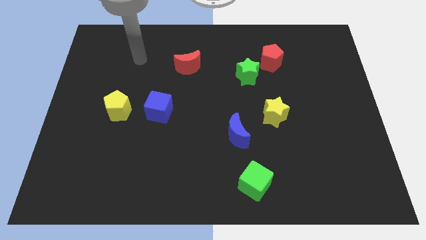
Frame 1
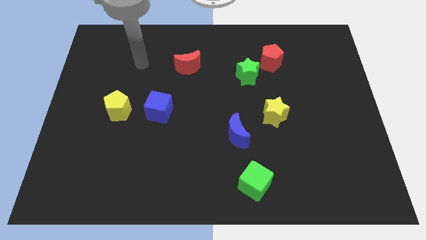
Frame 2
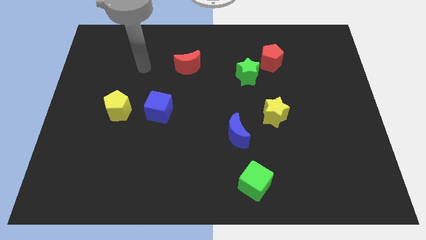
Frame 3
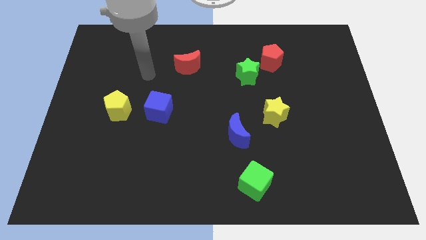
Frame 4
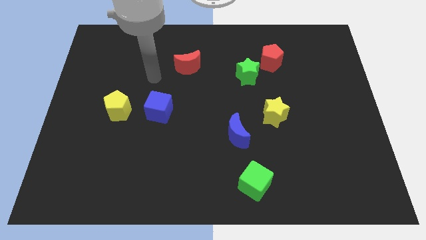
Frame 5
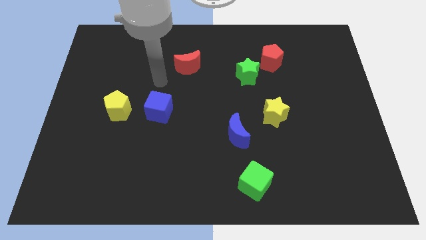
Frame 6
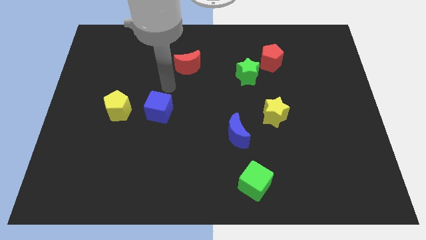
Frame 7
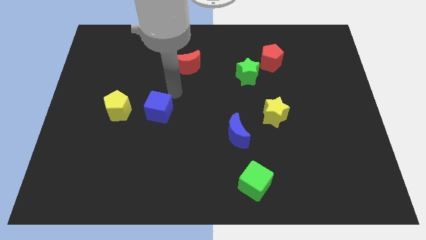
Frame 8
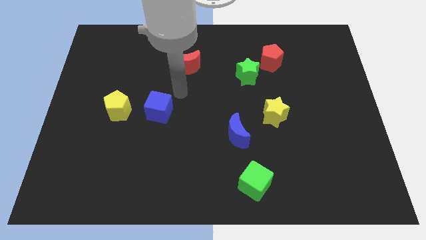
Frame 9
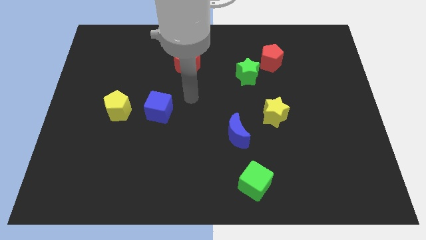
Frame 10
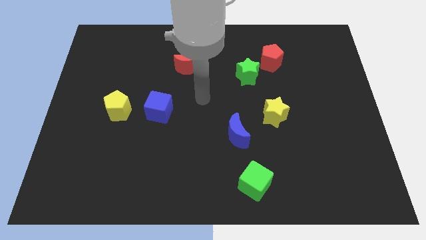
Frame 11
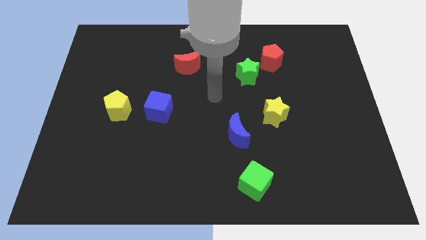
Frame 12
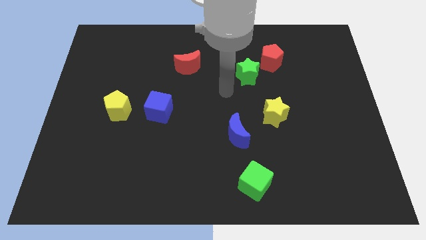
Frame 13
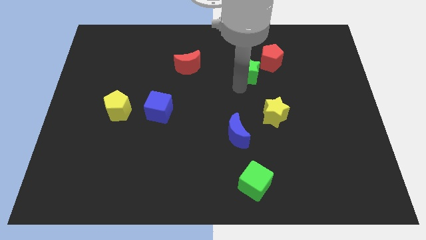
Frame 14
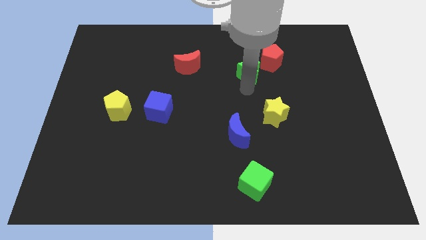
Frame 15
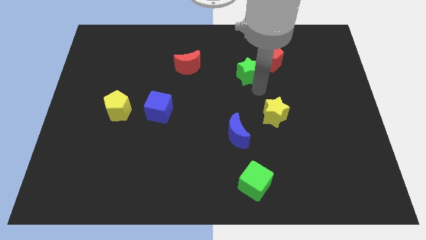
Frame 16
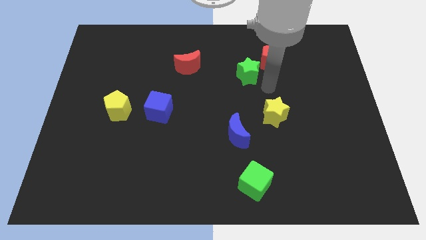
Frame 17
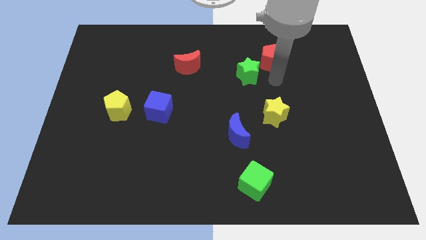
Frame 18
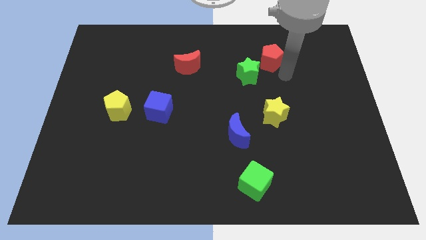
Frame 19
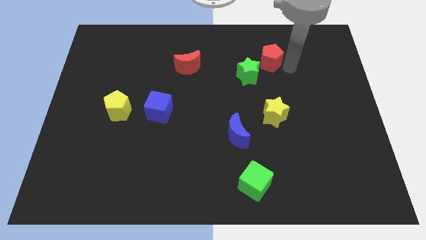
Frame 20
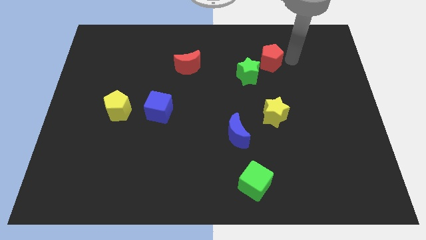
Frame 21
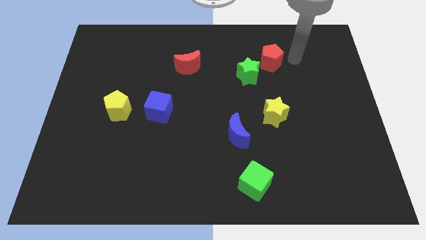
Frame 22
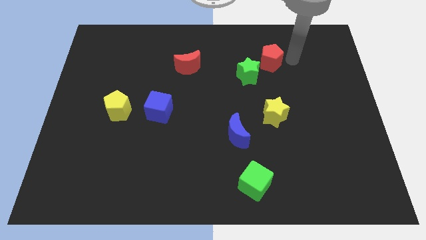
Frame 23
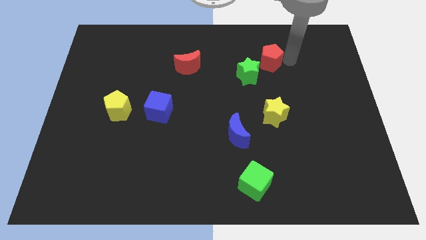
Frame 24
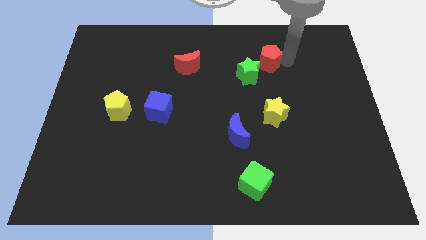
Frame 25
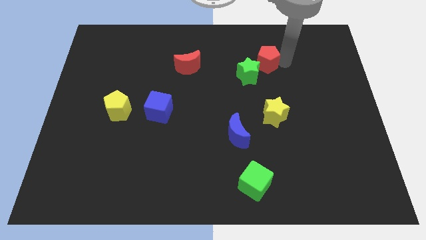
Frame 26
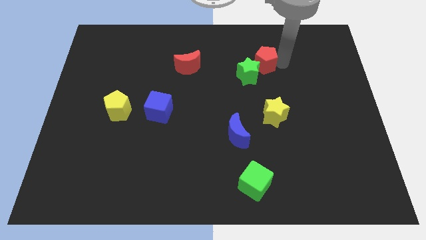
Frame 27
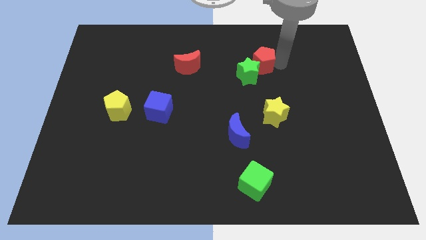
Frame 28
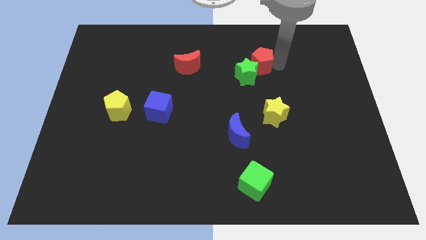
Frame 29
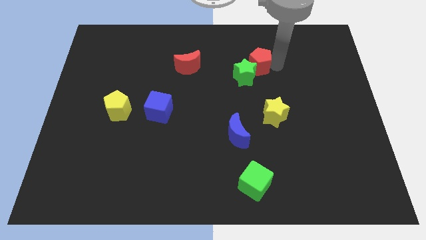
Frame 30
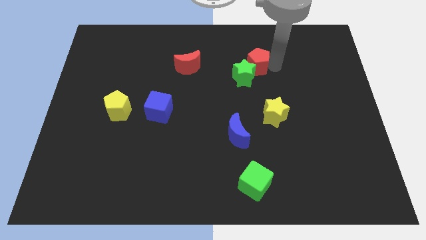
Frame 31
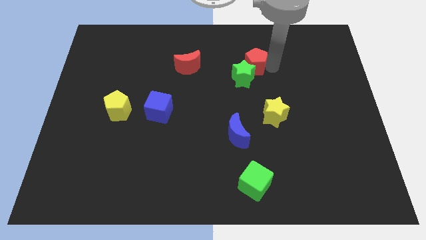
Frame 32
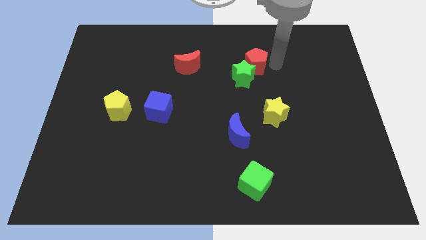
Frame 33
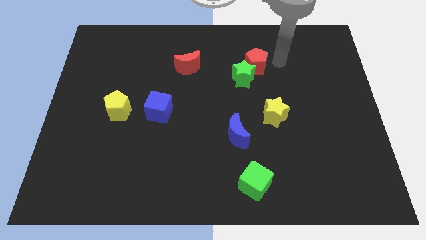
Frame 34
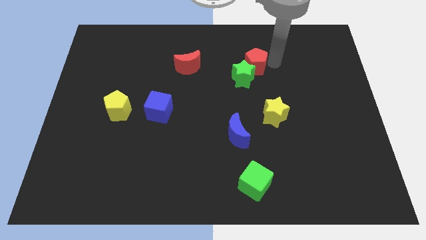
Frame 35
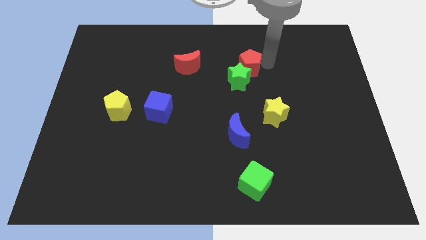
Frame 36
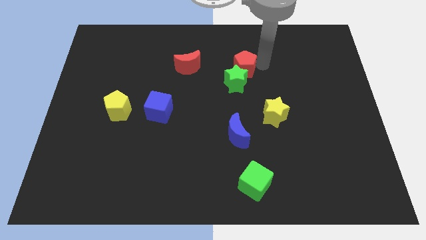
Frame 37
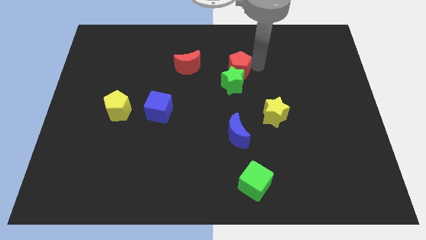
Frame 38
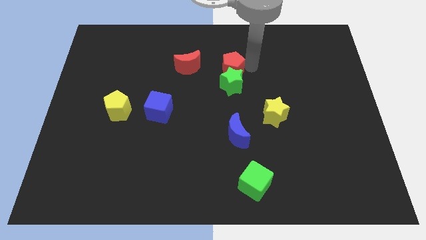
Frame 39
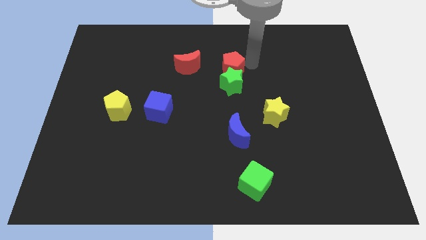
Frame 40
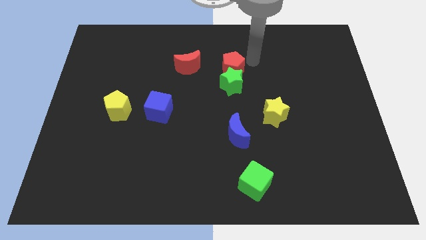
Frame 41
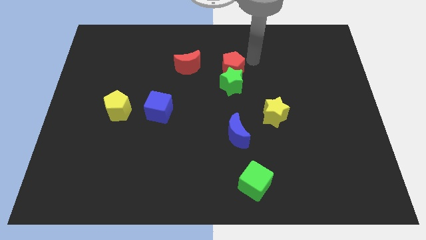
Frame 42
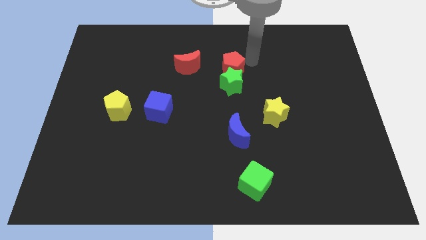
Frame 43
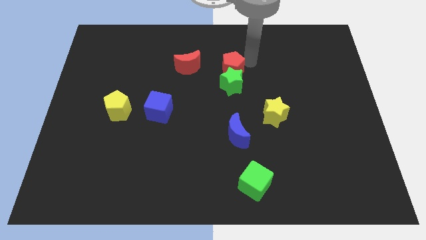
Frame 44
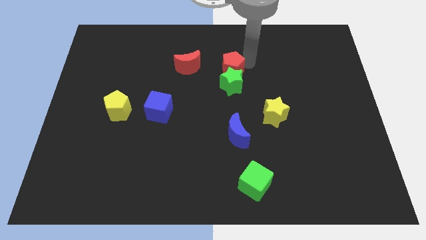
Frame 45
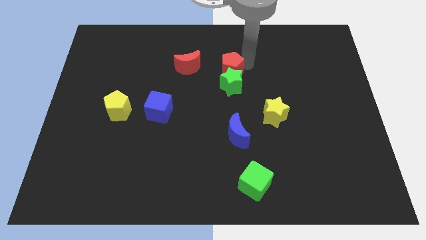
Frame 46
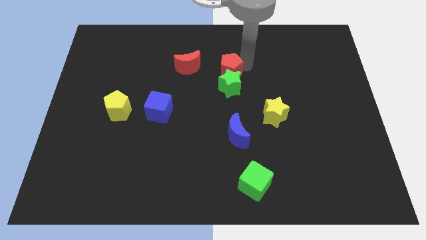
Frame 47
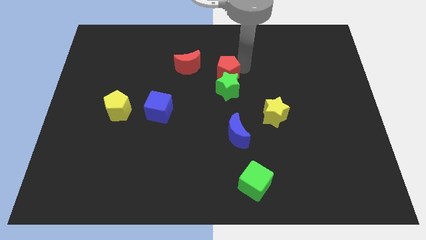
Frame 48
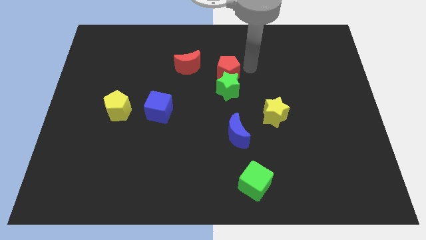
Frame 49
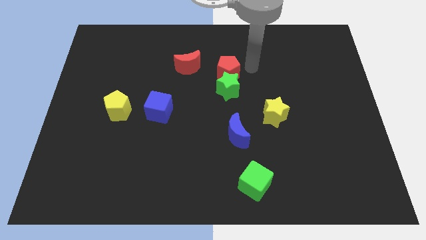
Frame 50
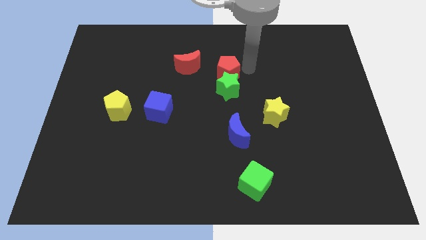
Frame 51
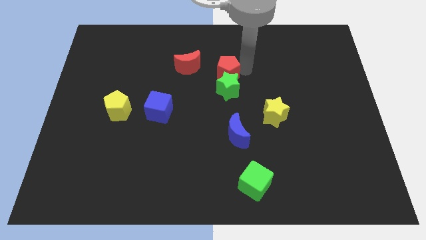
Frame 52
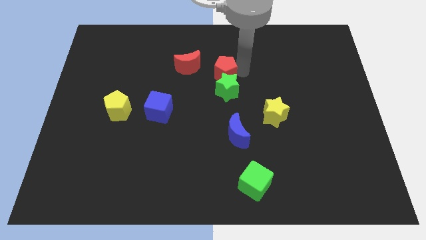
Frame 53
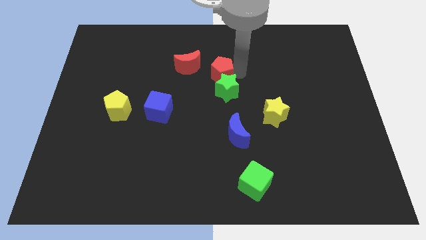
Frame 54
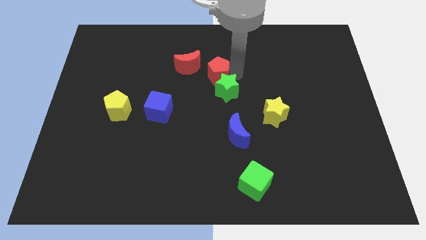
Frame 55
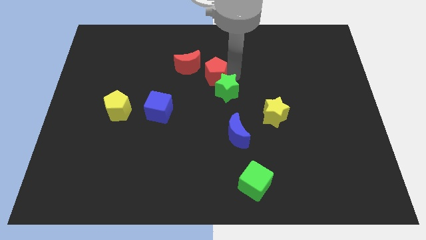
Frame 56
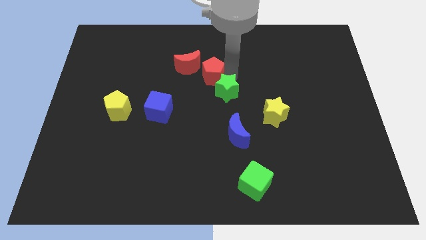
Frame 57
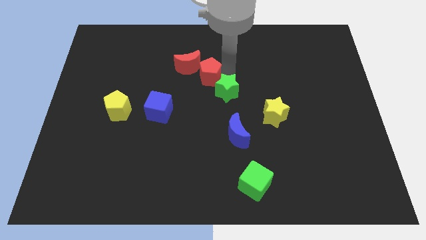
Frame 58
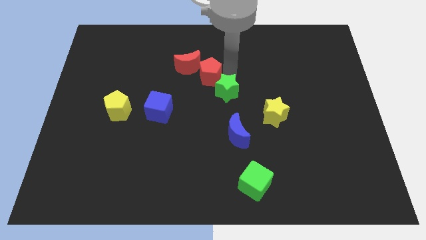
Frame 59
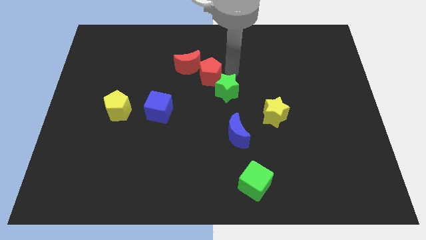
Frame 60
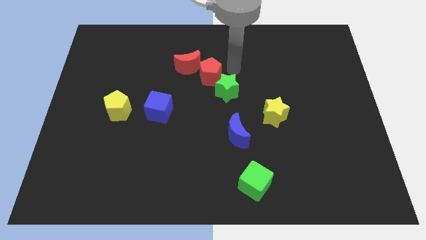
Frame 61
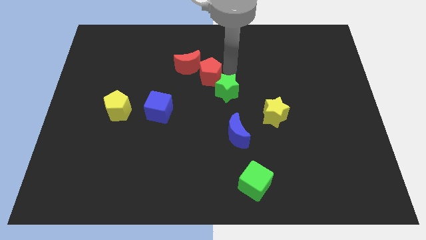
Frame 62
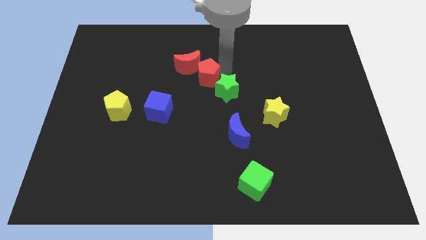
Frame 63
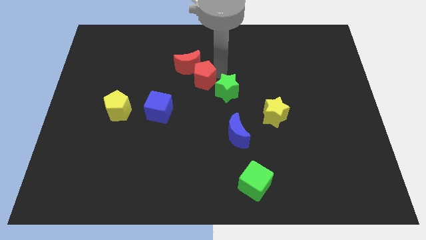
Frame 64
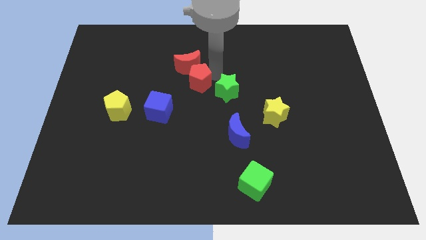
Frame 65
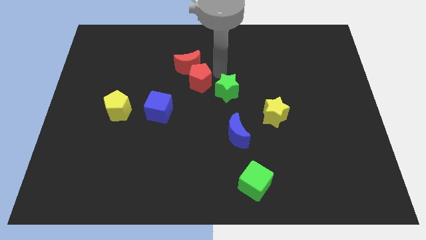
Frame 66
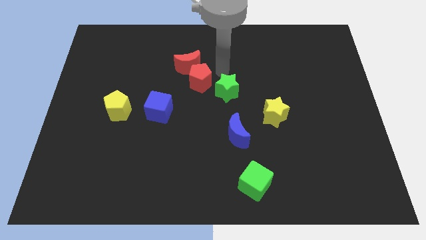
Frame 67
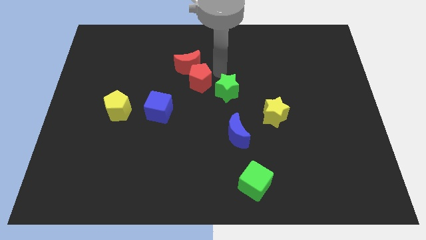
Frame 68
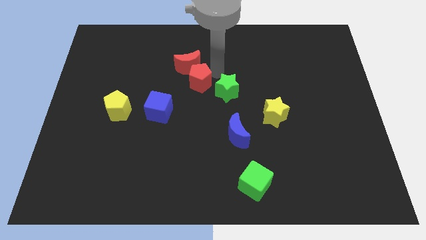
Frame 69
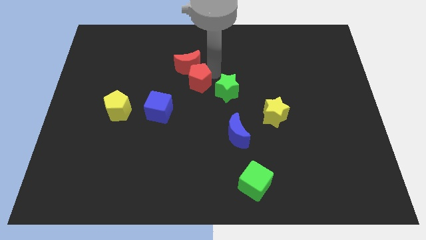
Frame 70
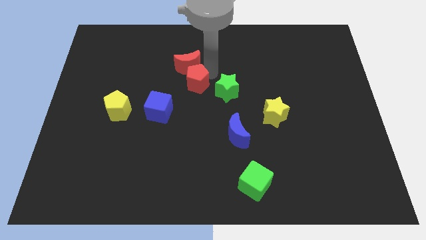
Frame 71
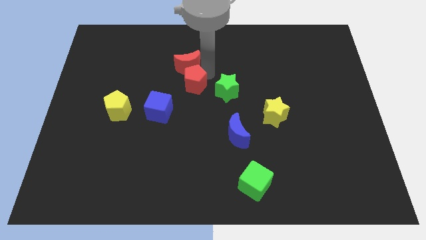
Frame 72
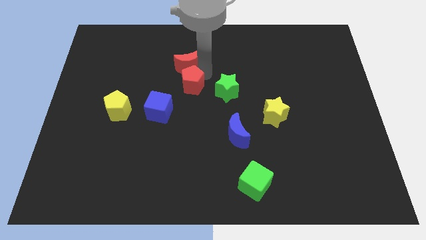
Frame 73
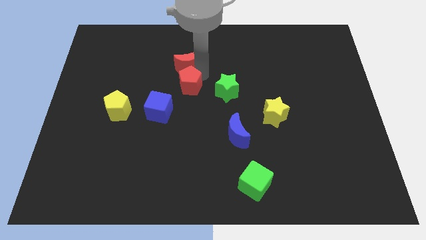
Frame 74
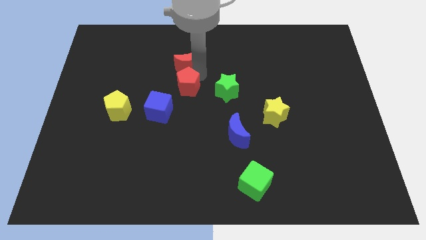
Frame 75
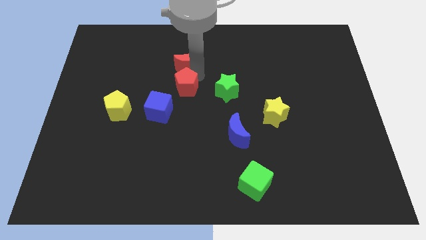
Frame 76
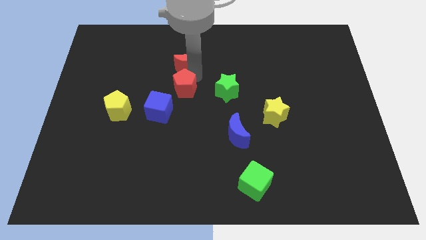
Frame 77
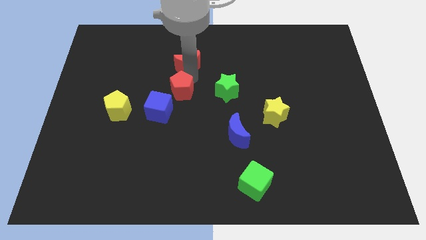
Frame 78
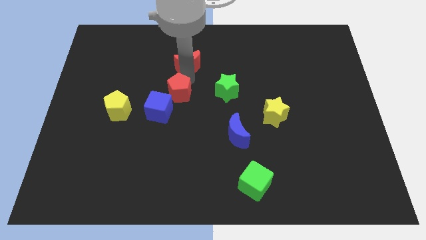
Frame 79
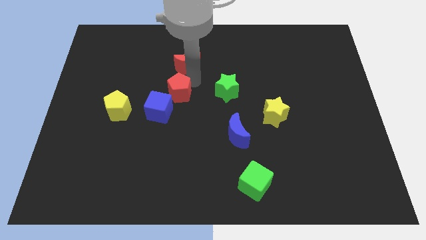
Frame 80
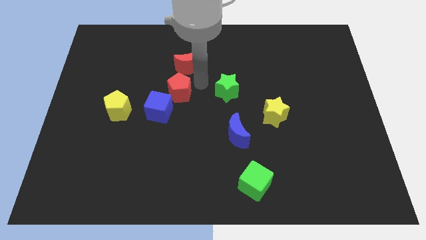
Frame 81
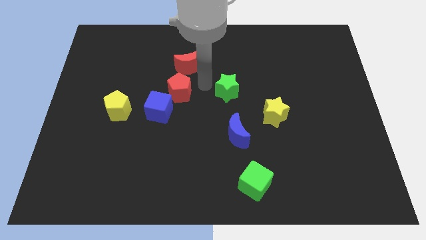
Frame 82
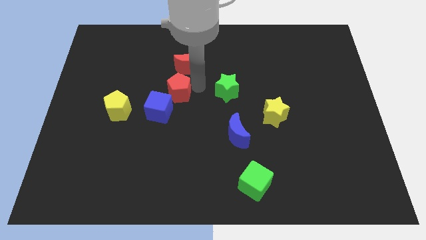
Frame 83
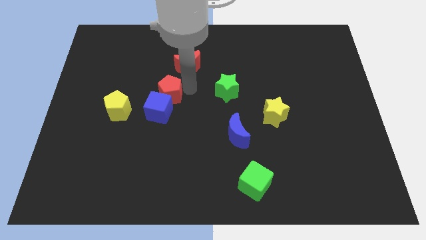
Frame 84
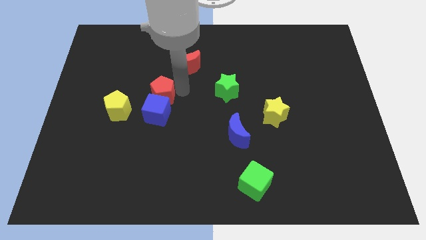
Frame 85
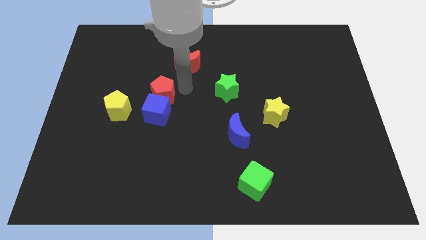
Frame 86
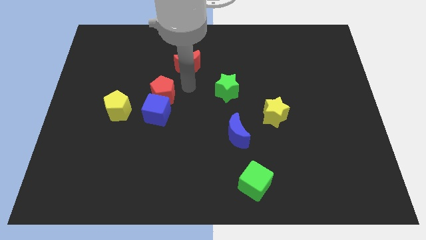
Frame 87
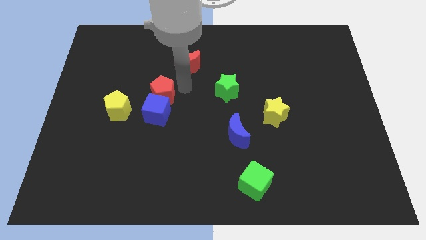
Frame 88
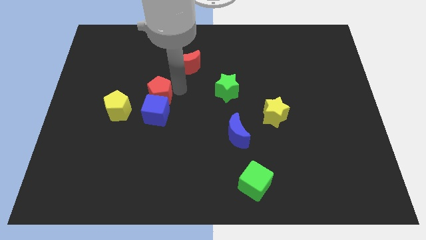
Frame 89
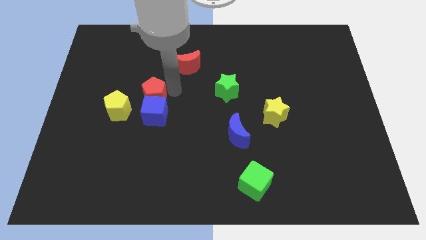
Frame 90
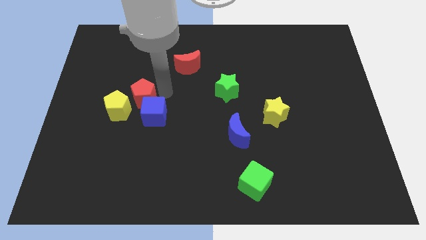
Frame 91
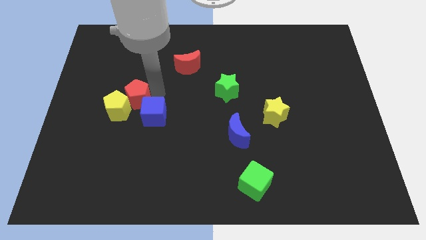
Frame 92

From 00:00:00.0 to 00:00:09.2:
put the red pentagon towards the yellow pentagon
